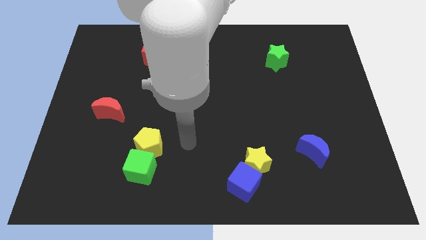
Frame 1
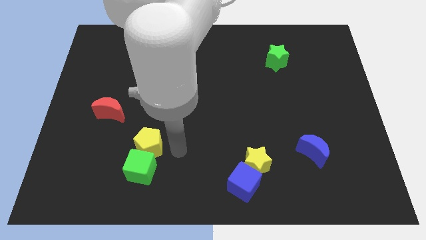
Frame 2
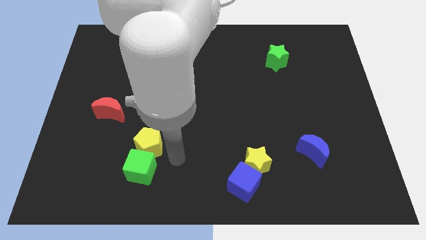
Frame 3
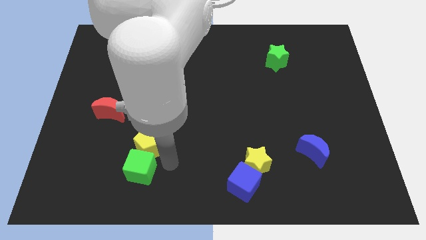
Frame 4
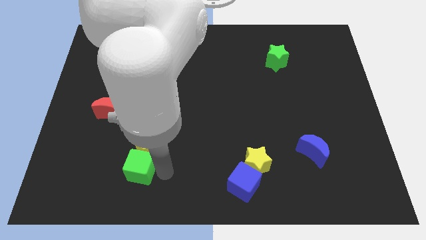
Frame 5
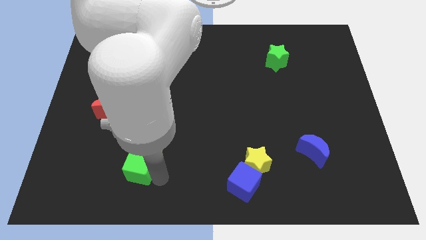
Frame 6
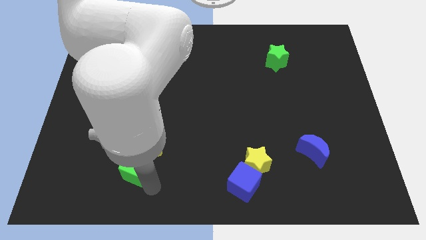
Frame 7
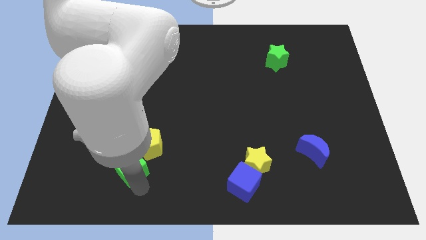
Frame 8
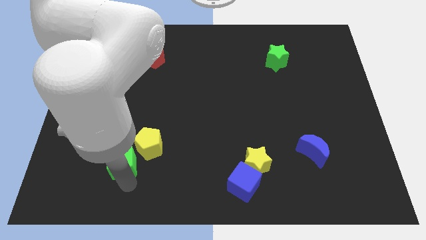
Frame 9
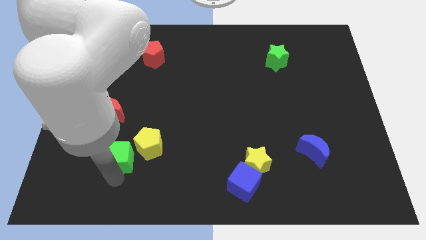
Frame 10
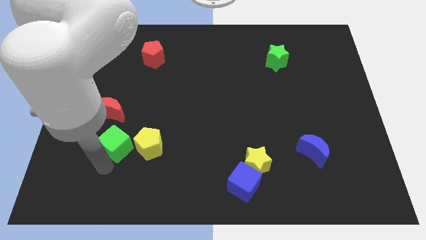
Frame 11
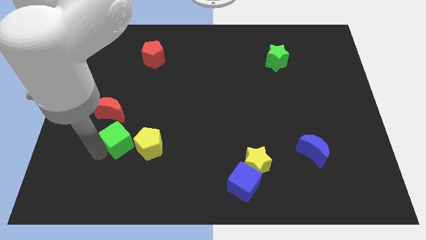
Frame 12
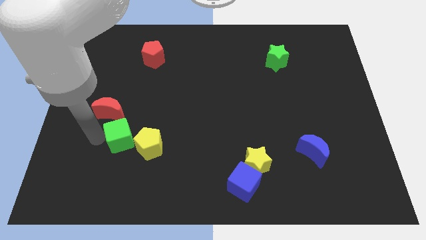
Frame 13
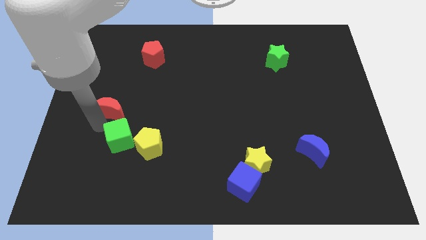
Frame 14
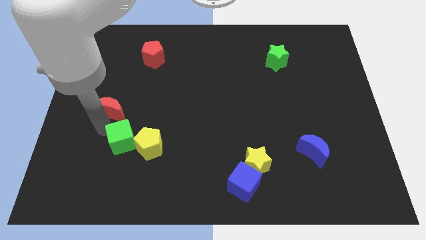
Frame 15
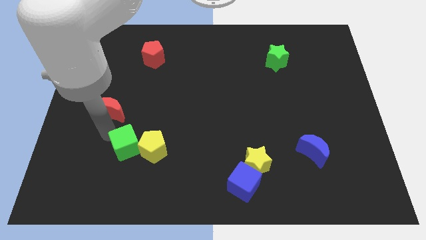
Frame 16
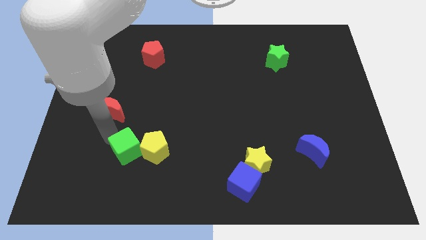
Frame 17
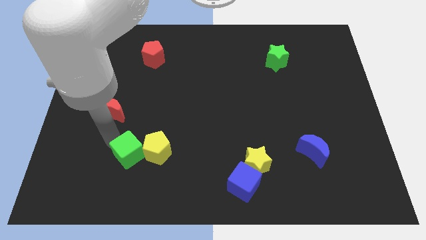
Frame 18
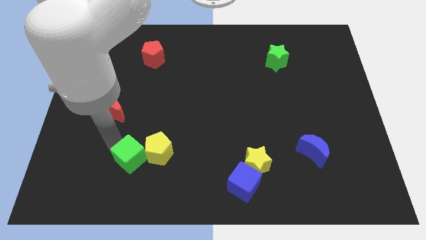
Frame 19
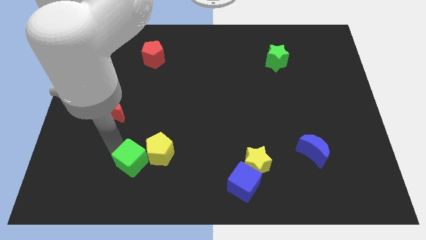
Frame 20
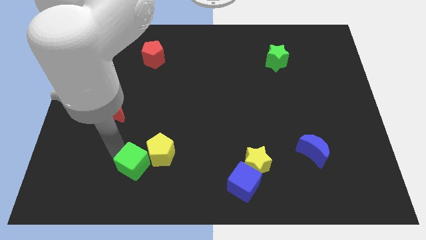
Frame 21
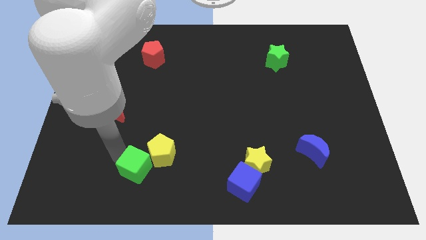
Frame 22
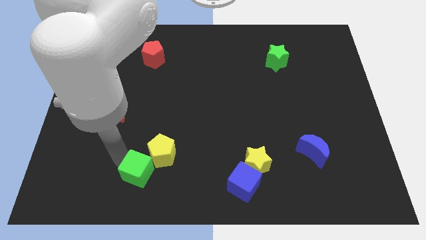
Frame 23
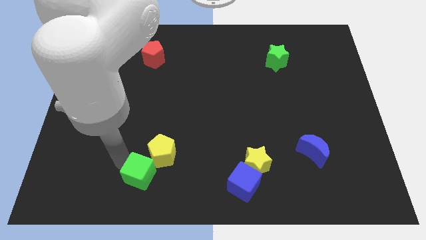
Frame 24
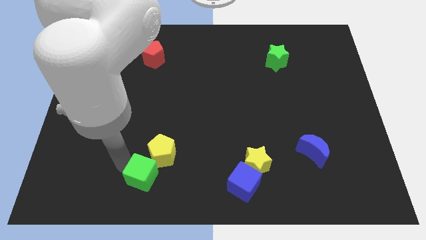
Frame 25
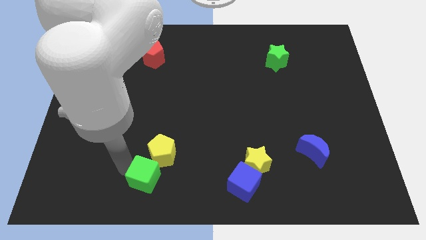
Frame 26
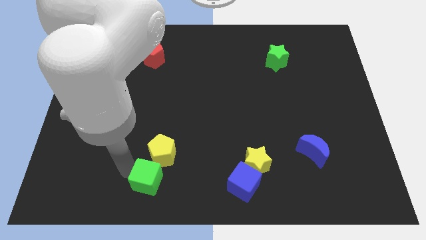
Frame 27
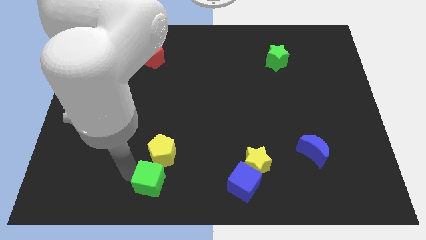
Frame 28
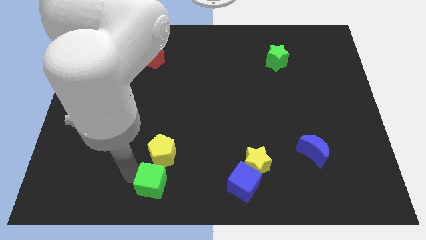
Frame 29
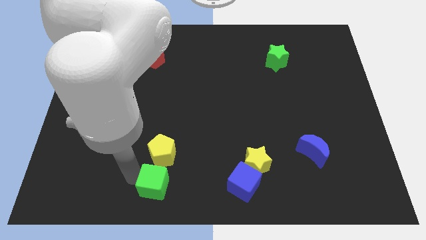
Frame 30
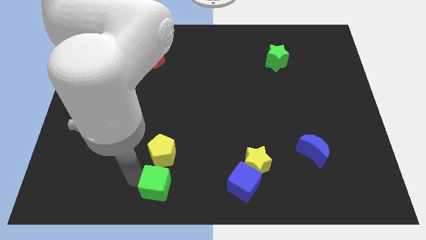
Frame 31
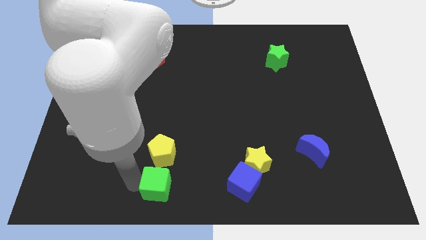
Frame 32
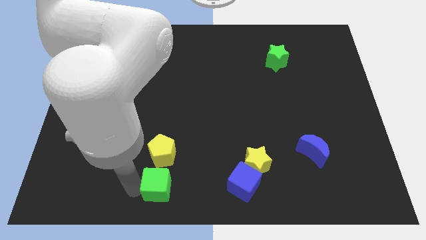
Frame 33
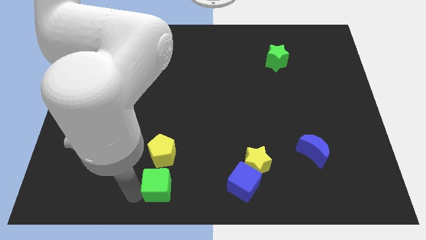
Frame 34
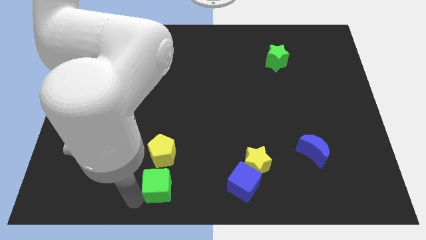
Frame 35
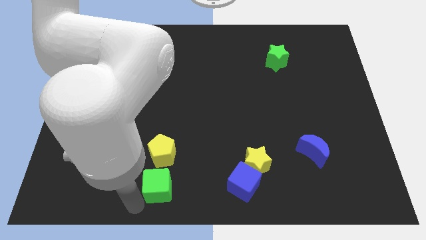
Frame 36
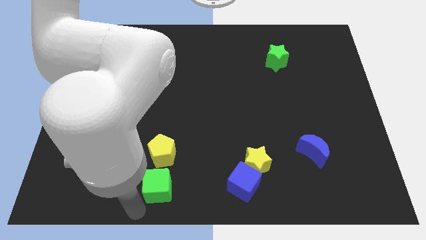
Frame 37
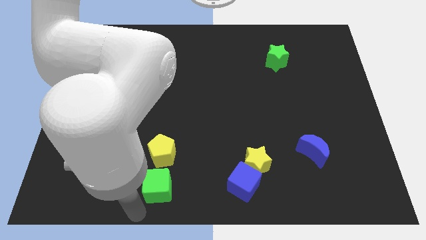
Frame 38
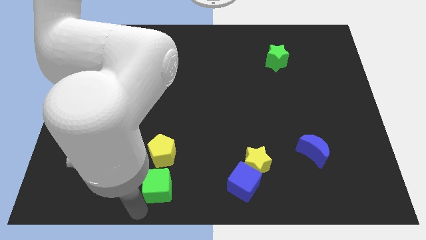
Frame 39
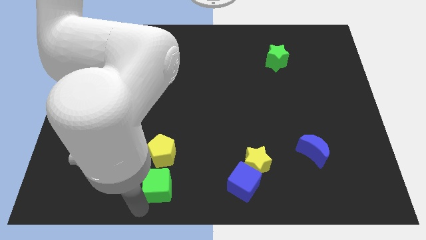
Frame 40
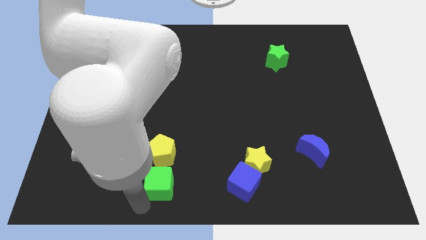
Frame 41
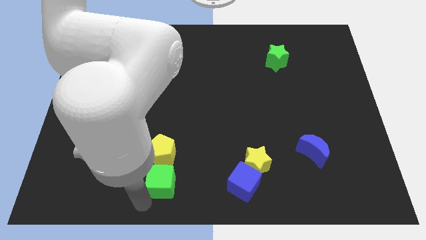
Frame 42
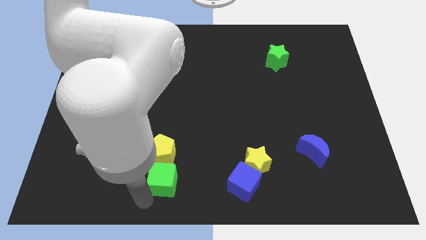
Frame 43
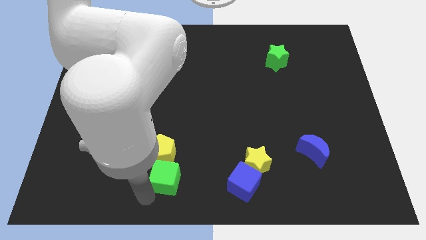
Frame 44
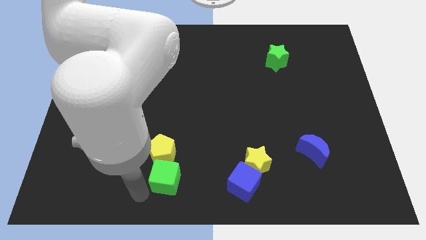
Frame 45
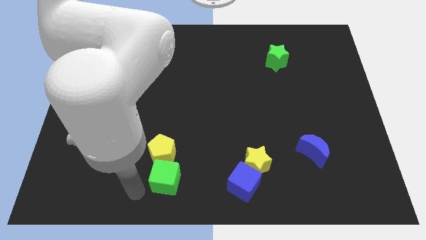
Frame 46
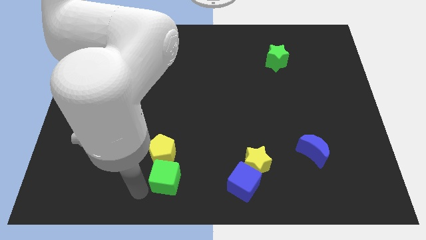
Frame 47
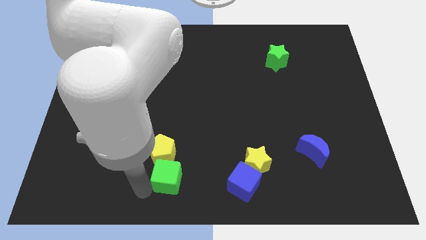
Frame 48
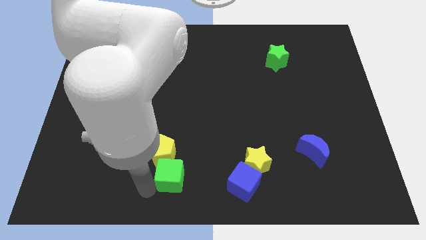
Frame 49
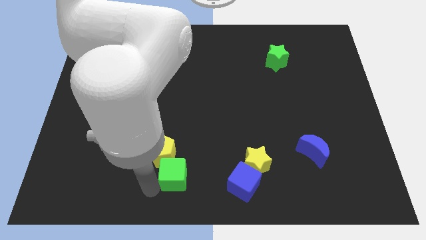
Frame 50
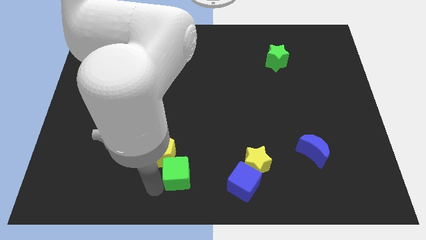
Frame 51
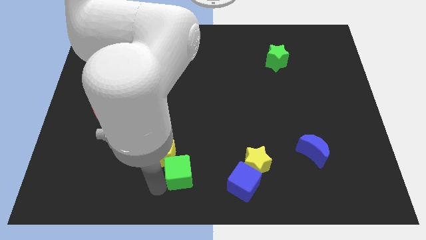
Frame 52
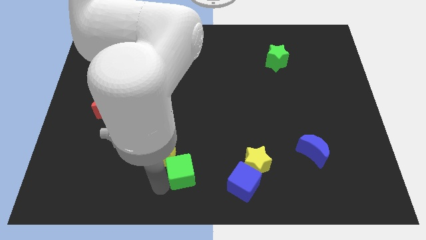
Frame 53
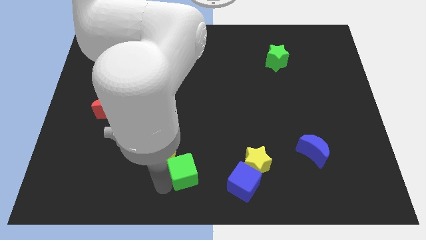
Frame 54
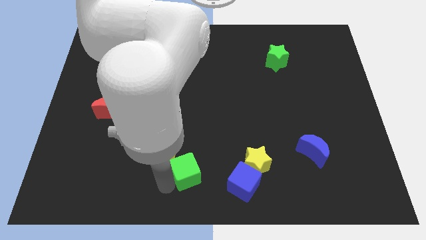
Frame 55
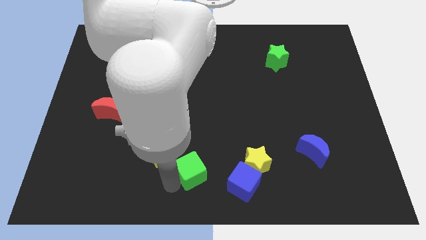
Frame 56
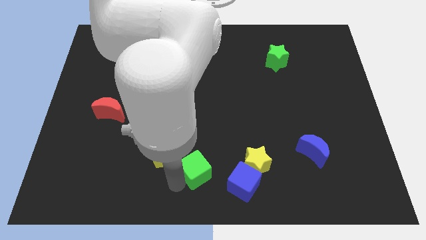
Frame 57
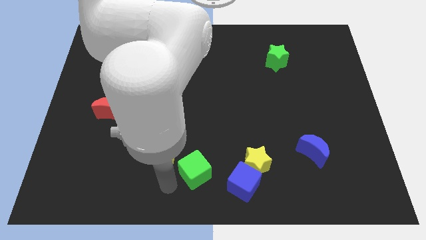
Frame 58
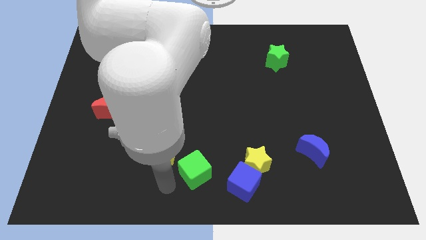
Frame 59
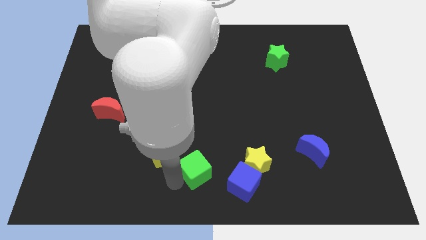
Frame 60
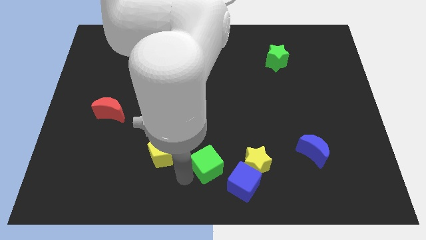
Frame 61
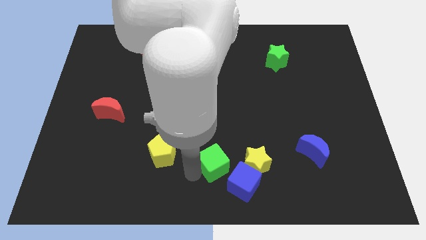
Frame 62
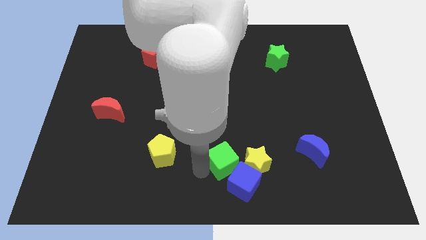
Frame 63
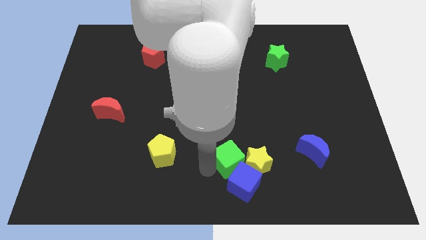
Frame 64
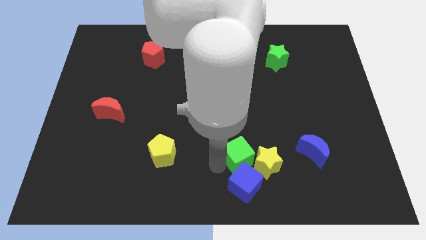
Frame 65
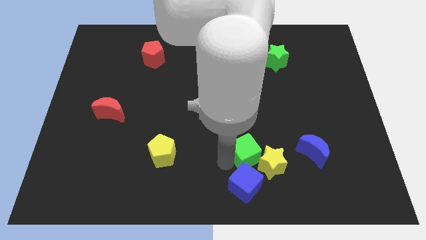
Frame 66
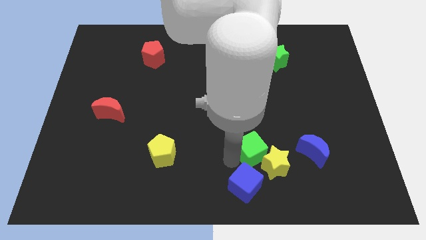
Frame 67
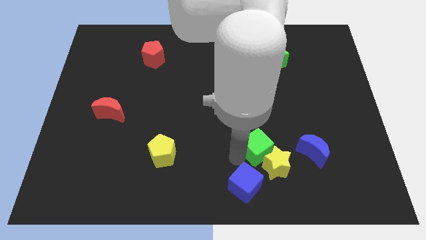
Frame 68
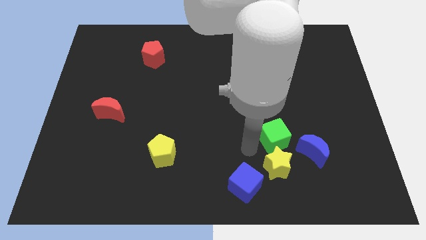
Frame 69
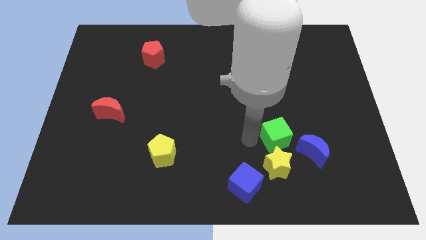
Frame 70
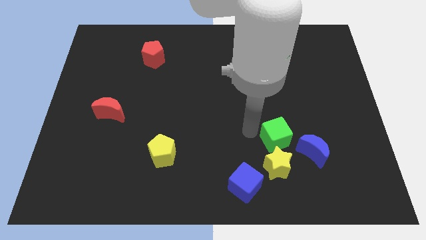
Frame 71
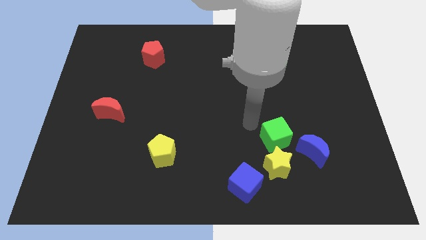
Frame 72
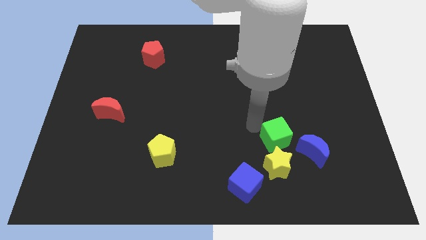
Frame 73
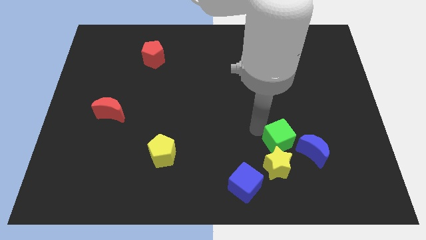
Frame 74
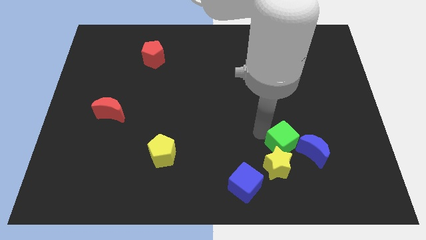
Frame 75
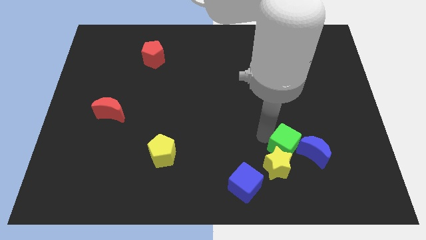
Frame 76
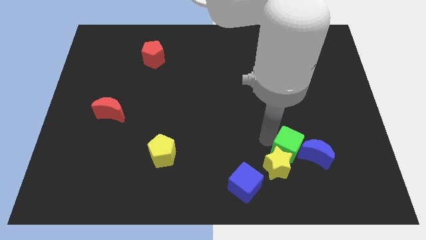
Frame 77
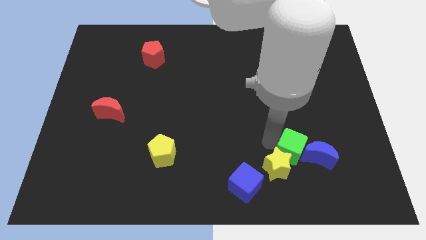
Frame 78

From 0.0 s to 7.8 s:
push the green cube to the right of the yellow star

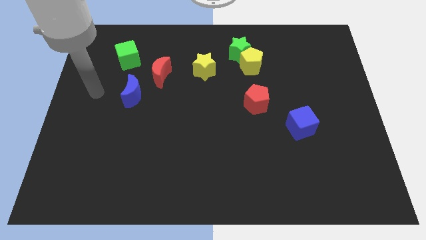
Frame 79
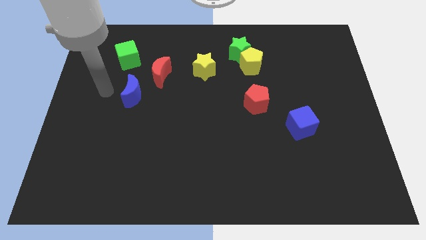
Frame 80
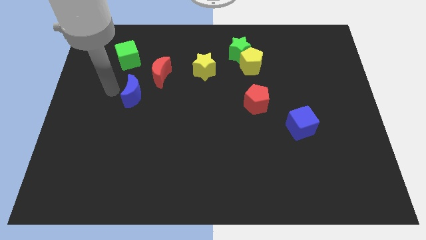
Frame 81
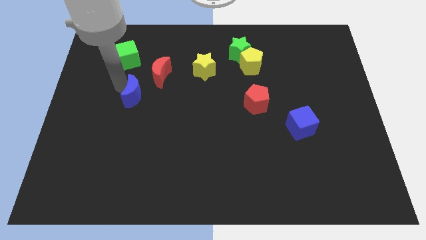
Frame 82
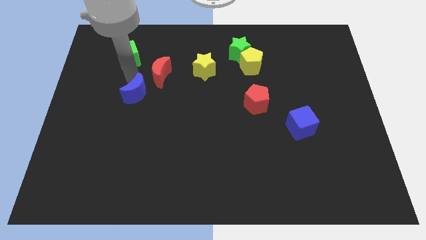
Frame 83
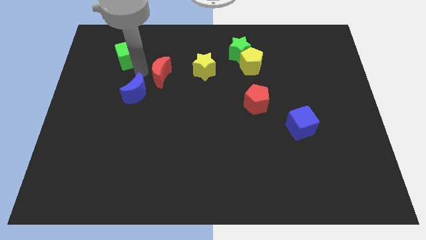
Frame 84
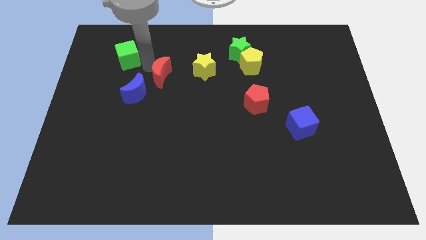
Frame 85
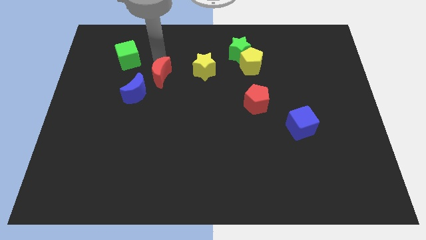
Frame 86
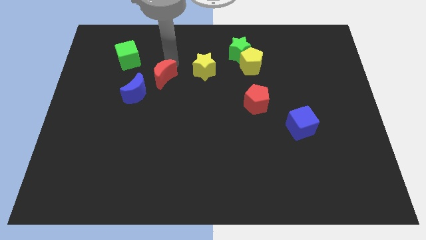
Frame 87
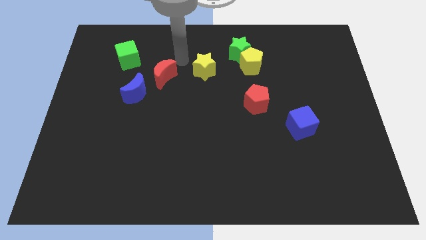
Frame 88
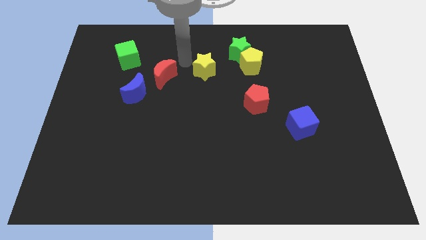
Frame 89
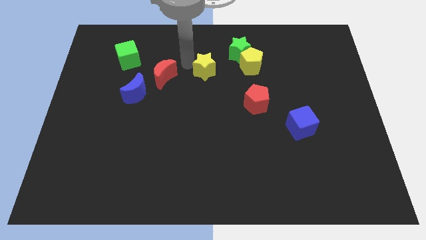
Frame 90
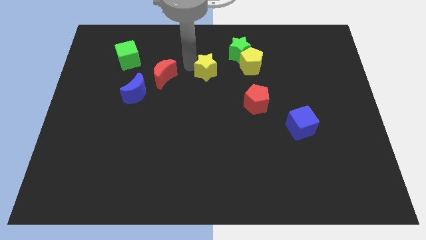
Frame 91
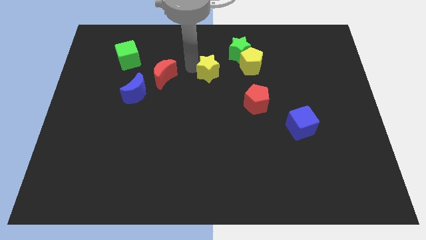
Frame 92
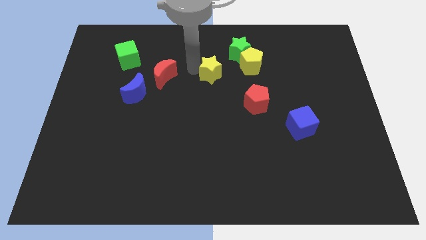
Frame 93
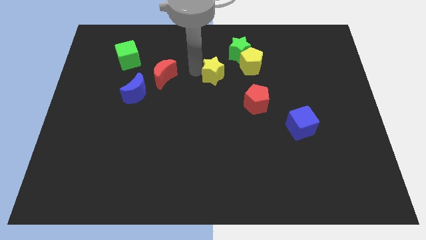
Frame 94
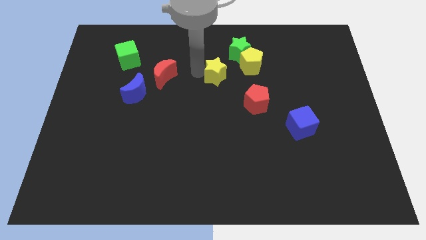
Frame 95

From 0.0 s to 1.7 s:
put the yellow star to the bottom left side of the yellow pentagon
